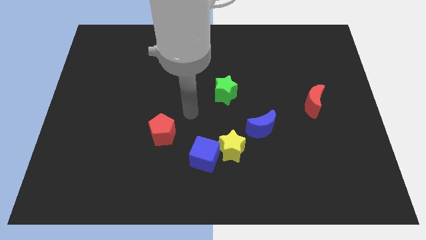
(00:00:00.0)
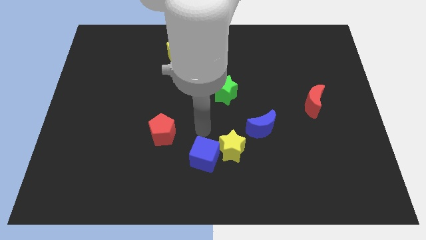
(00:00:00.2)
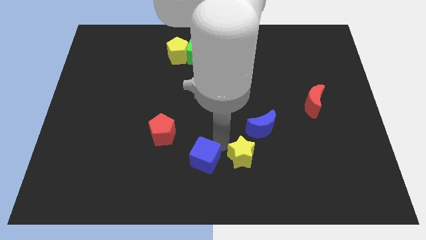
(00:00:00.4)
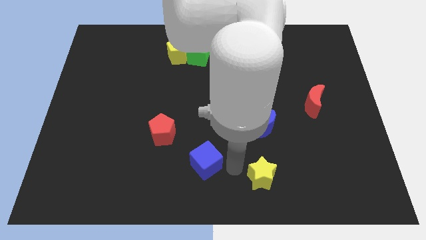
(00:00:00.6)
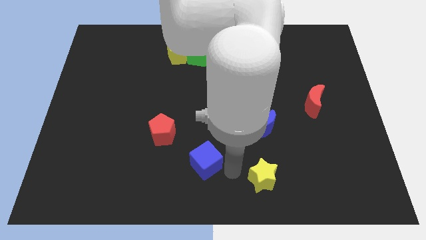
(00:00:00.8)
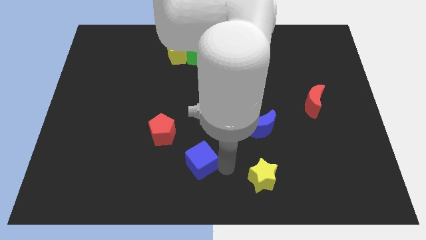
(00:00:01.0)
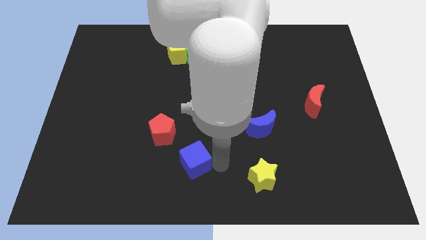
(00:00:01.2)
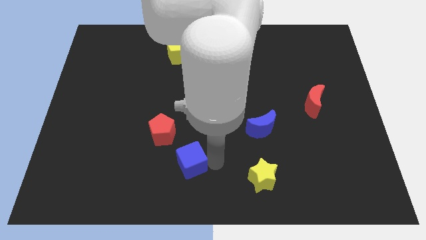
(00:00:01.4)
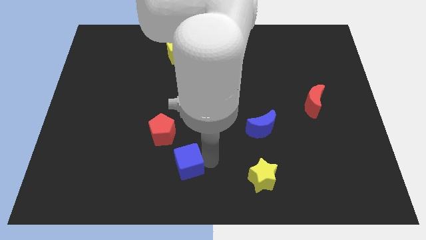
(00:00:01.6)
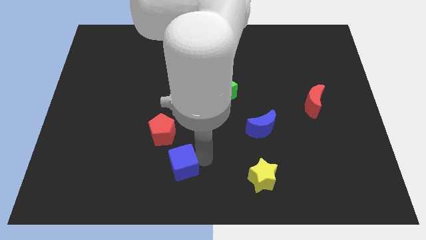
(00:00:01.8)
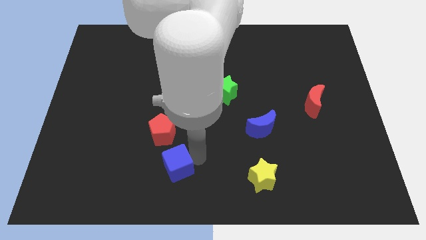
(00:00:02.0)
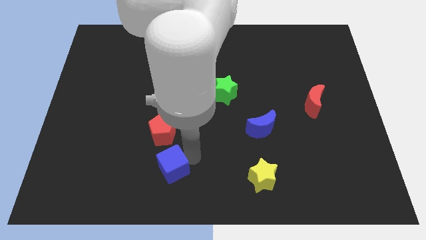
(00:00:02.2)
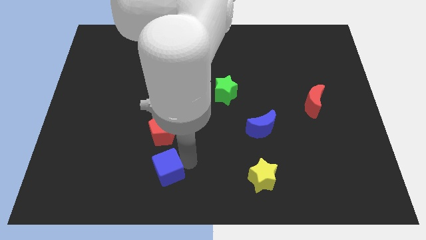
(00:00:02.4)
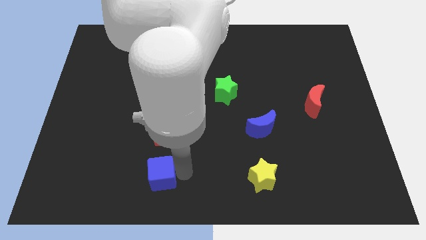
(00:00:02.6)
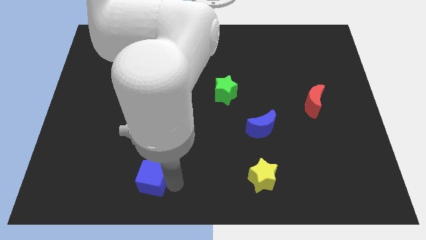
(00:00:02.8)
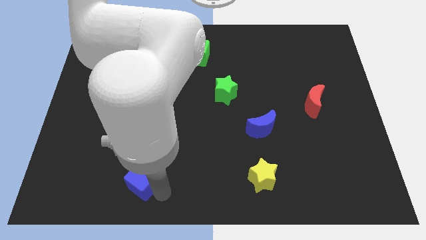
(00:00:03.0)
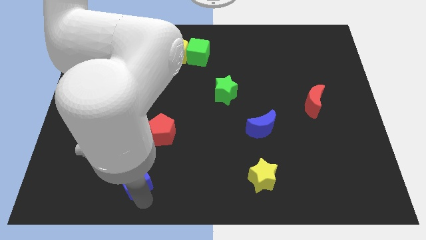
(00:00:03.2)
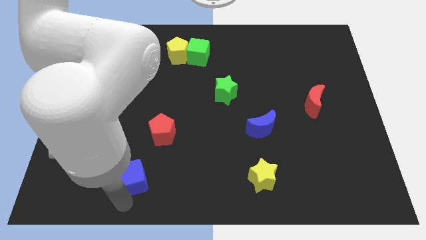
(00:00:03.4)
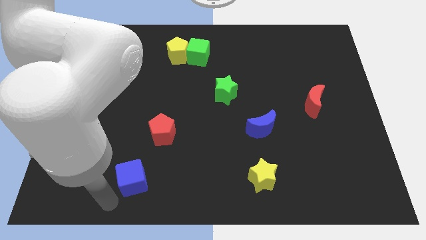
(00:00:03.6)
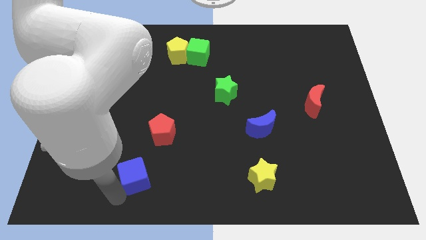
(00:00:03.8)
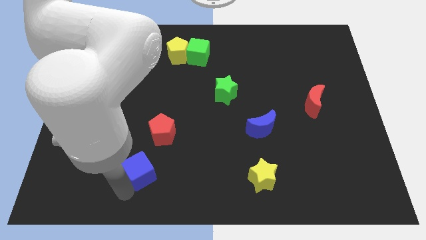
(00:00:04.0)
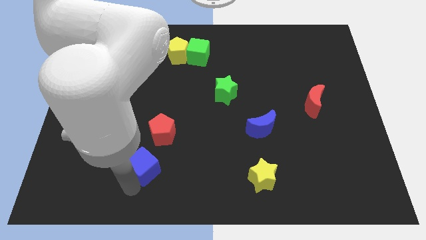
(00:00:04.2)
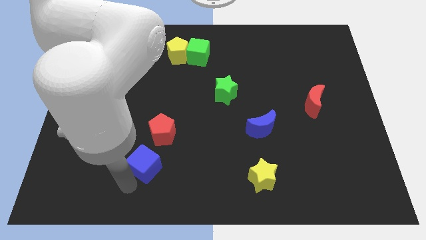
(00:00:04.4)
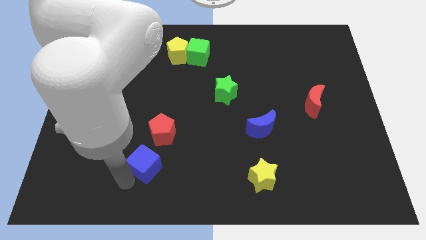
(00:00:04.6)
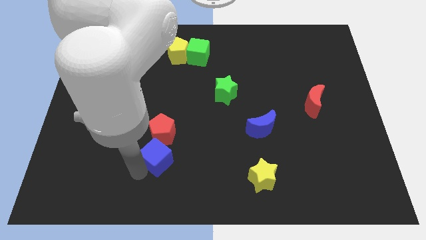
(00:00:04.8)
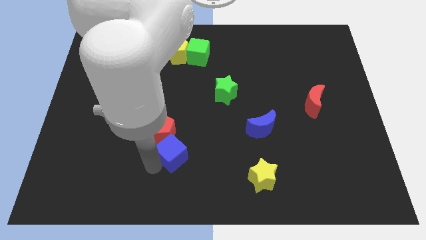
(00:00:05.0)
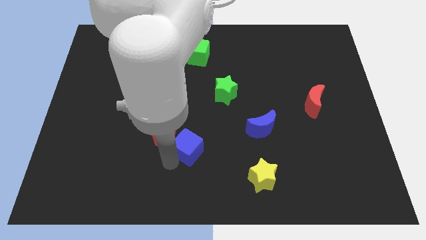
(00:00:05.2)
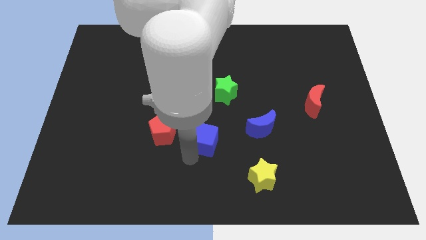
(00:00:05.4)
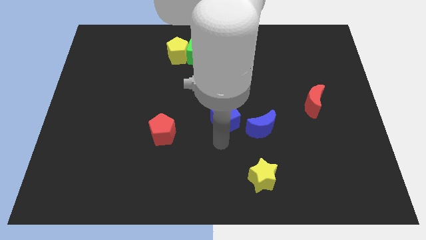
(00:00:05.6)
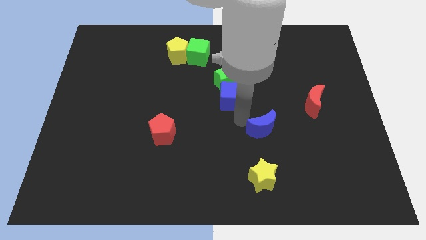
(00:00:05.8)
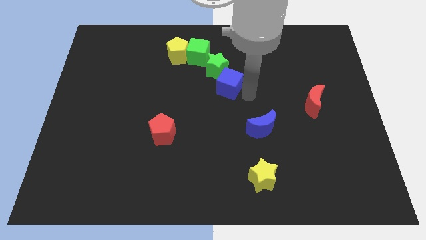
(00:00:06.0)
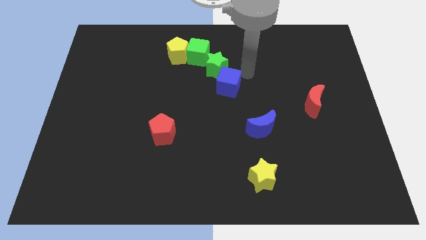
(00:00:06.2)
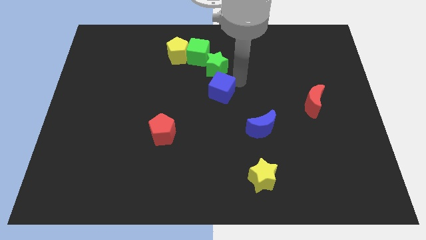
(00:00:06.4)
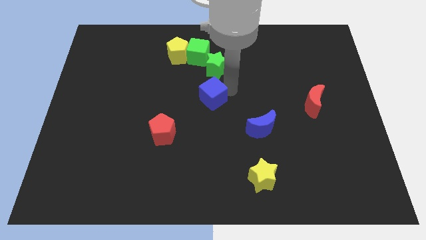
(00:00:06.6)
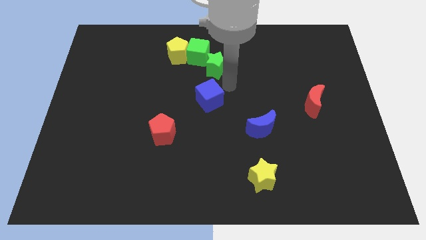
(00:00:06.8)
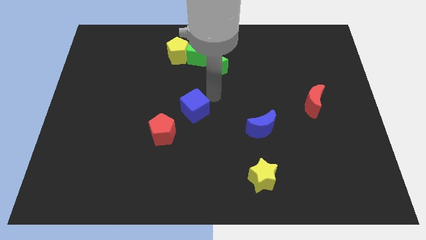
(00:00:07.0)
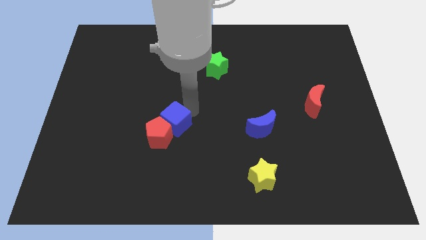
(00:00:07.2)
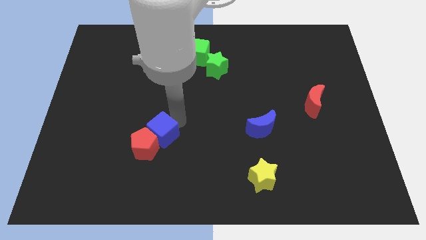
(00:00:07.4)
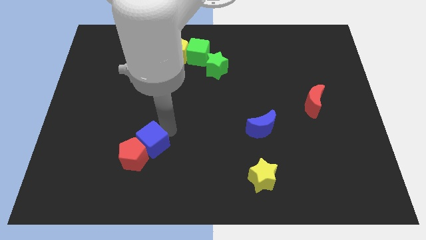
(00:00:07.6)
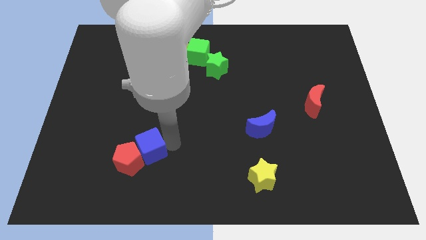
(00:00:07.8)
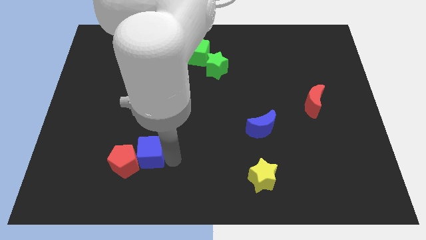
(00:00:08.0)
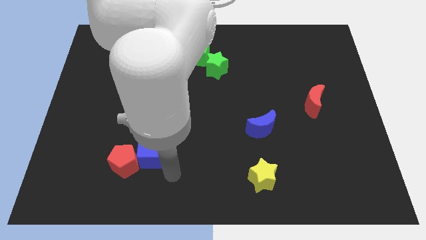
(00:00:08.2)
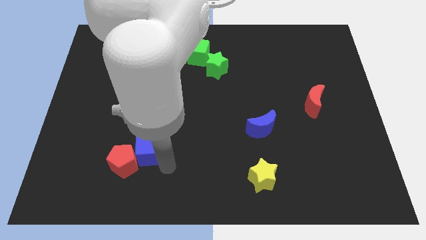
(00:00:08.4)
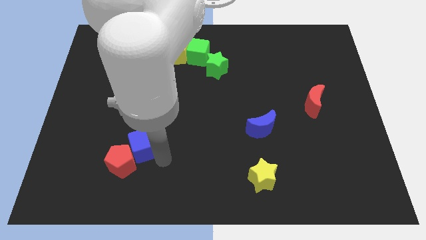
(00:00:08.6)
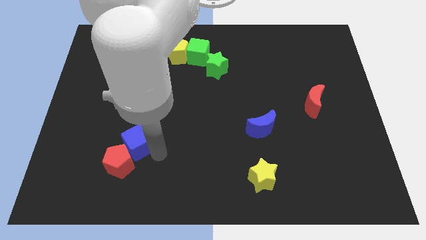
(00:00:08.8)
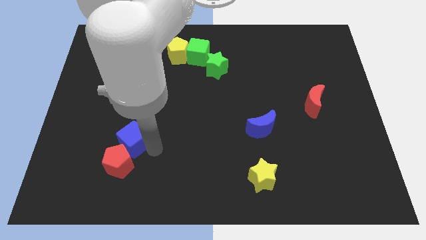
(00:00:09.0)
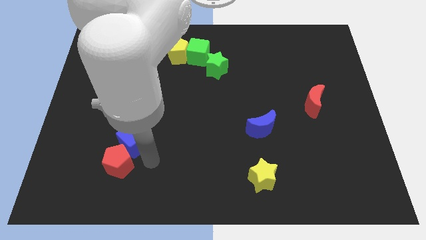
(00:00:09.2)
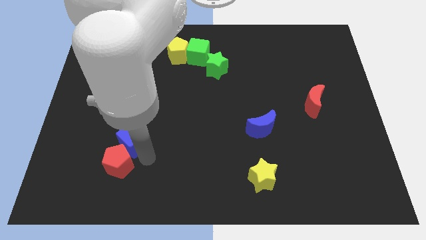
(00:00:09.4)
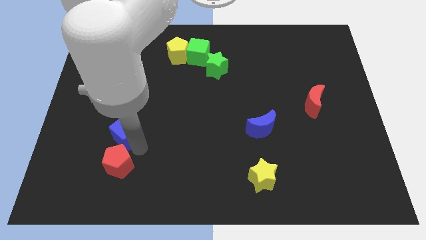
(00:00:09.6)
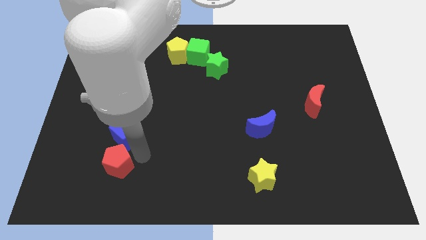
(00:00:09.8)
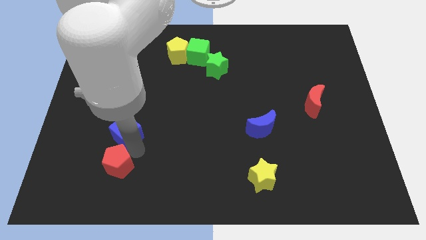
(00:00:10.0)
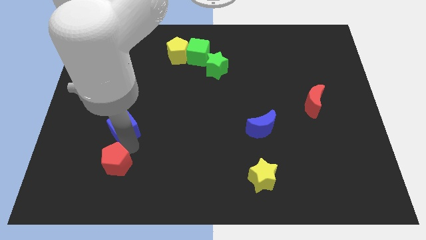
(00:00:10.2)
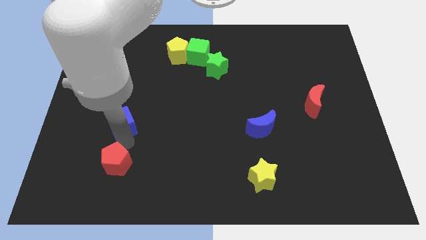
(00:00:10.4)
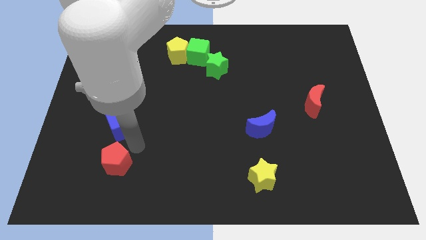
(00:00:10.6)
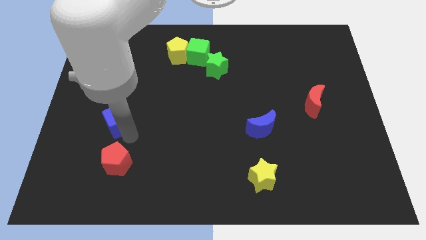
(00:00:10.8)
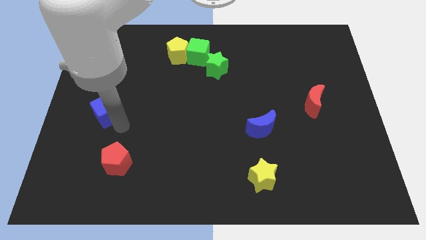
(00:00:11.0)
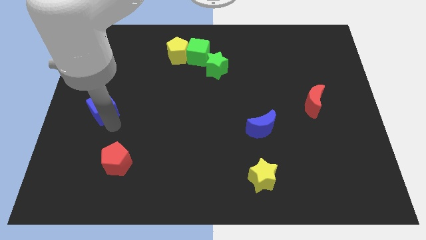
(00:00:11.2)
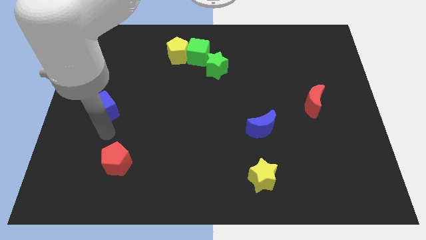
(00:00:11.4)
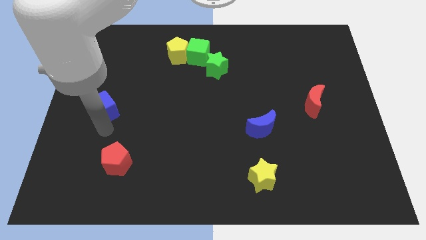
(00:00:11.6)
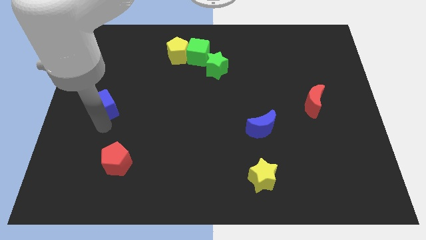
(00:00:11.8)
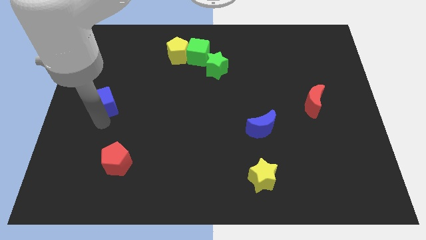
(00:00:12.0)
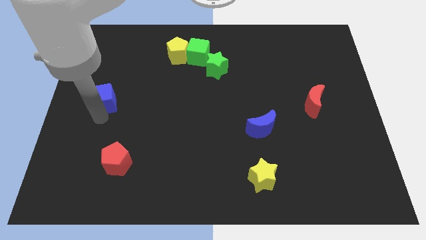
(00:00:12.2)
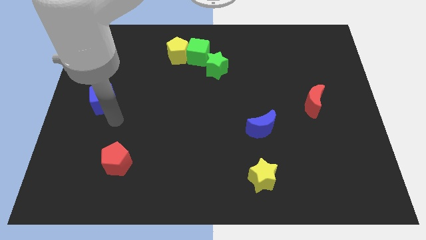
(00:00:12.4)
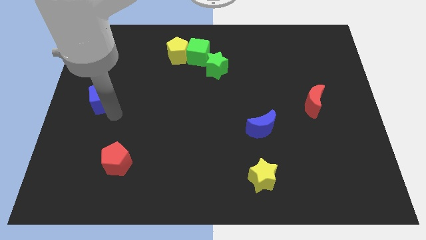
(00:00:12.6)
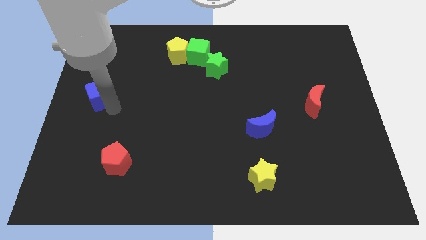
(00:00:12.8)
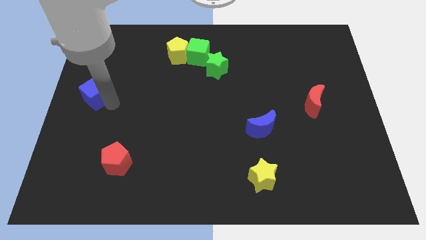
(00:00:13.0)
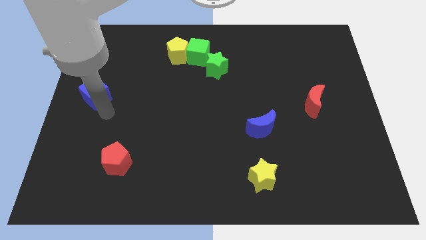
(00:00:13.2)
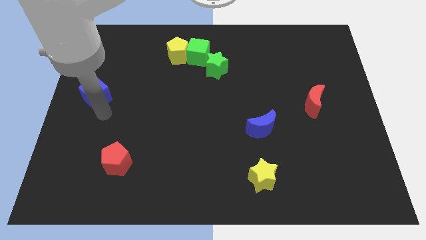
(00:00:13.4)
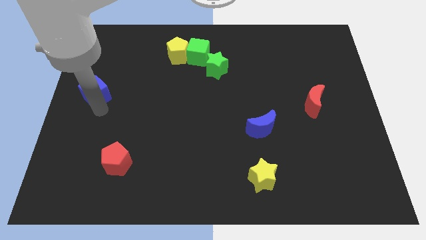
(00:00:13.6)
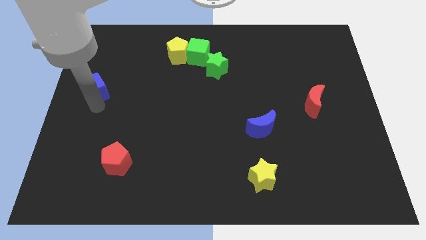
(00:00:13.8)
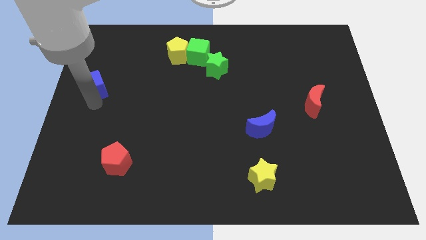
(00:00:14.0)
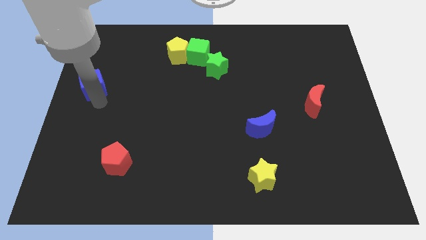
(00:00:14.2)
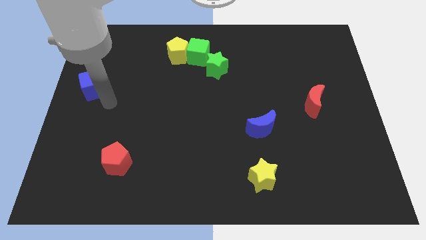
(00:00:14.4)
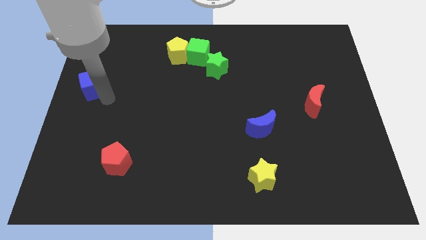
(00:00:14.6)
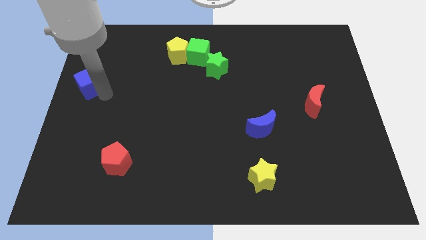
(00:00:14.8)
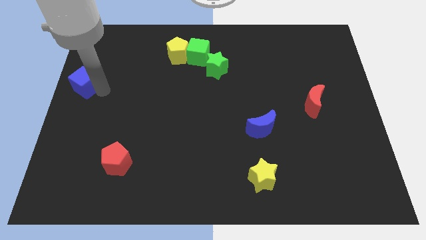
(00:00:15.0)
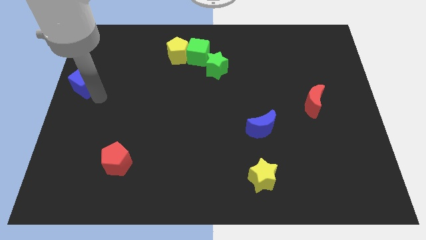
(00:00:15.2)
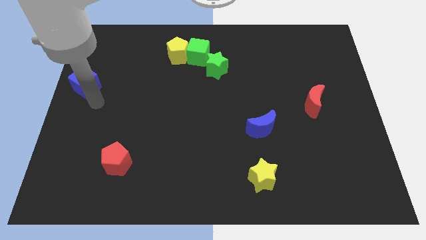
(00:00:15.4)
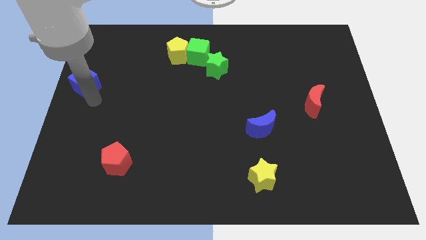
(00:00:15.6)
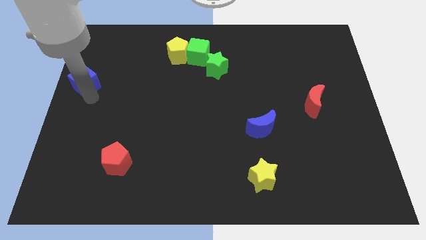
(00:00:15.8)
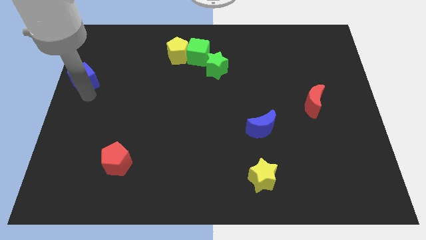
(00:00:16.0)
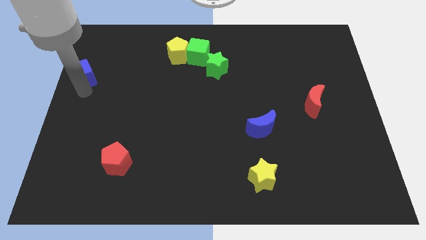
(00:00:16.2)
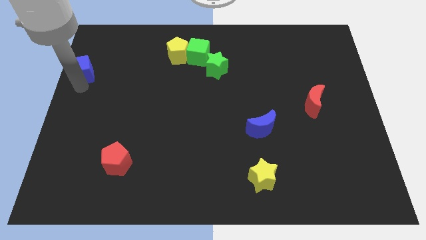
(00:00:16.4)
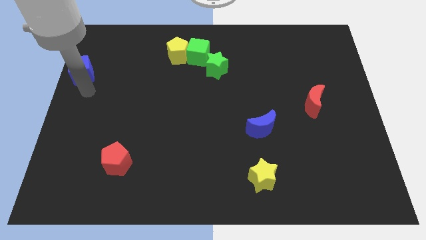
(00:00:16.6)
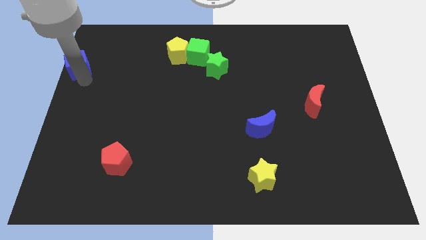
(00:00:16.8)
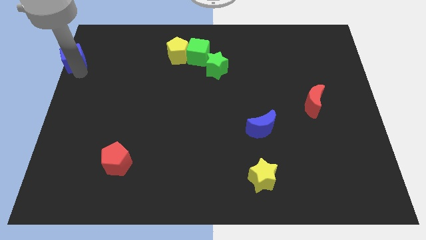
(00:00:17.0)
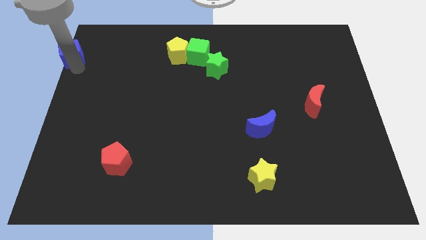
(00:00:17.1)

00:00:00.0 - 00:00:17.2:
put the blue cube to the top left corner
